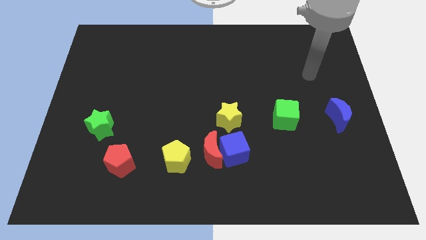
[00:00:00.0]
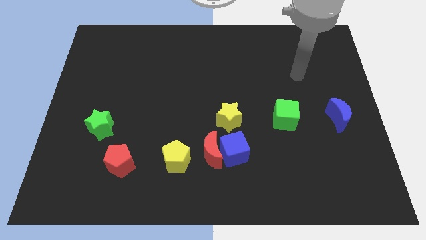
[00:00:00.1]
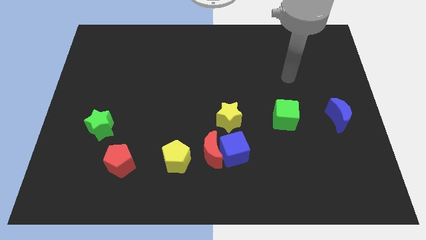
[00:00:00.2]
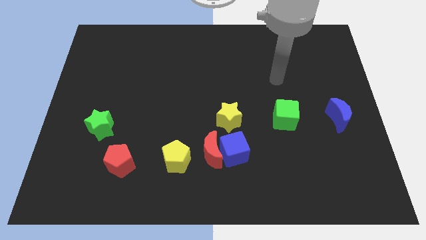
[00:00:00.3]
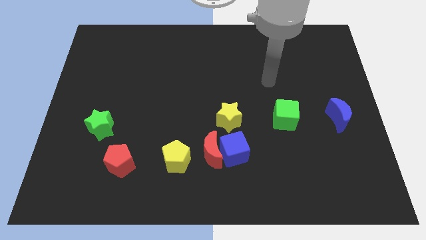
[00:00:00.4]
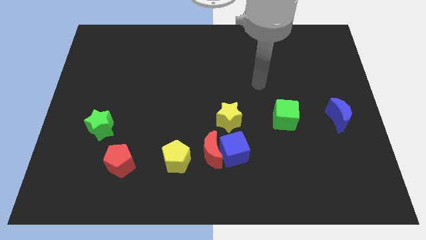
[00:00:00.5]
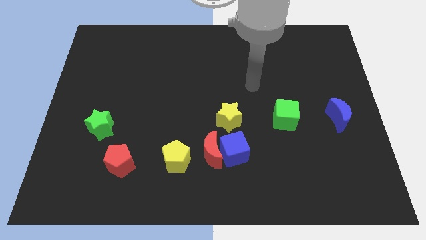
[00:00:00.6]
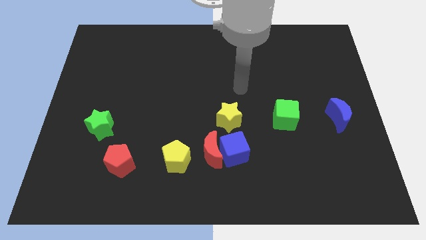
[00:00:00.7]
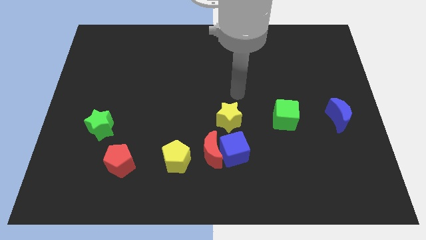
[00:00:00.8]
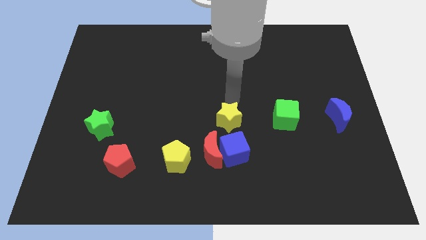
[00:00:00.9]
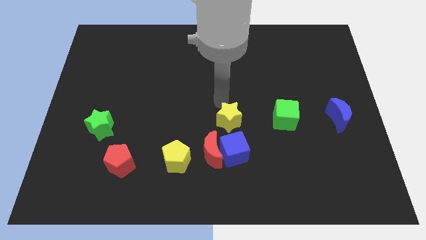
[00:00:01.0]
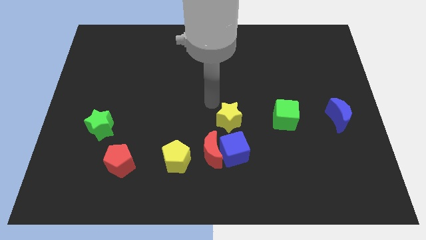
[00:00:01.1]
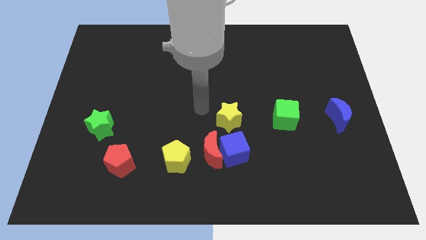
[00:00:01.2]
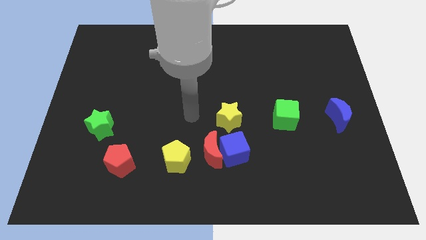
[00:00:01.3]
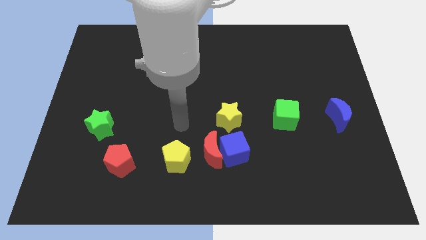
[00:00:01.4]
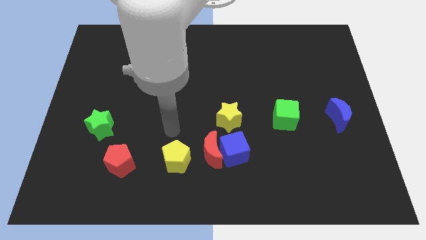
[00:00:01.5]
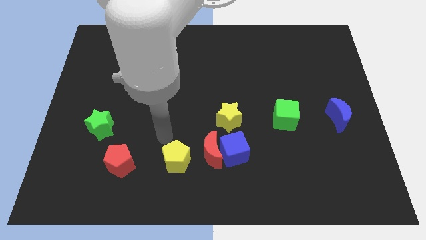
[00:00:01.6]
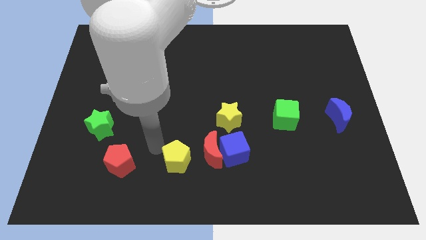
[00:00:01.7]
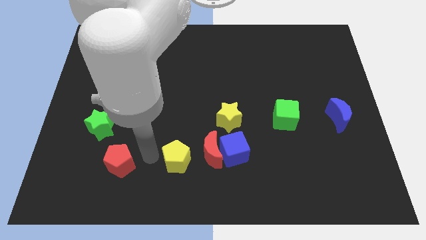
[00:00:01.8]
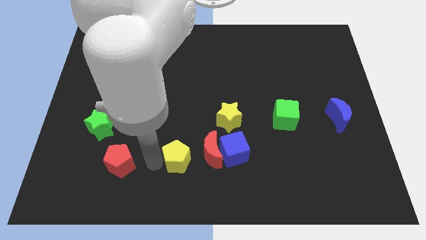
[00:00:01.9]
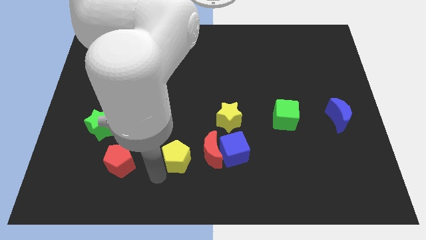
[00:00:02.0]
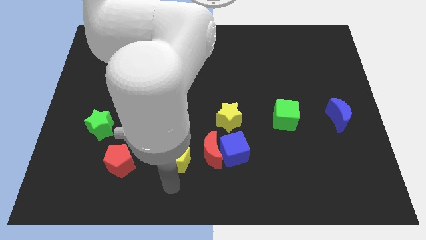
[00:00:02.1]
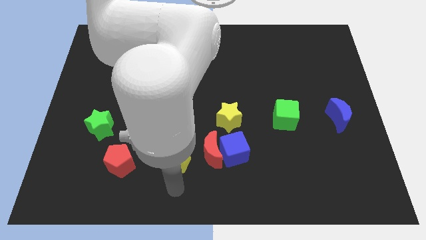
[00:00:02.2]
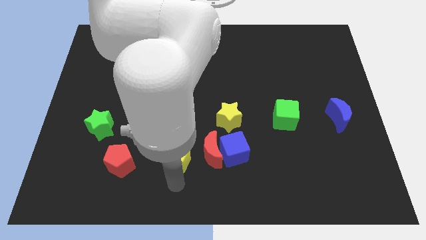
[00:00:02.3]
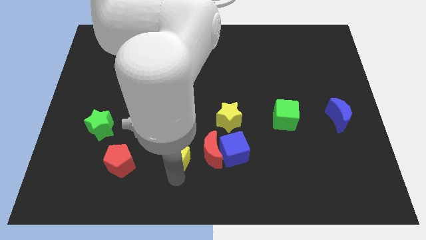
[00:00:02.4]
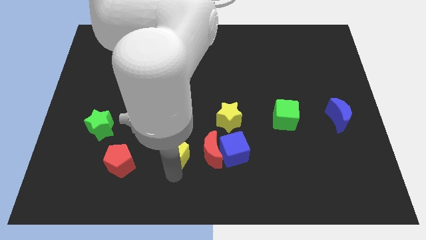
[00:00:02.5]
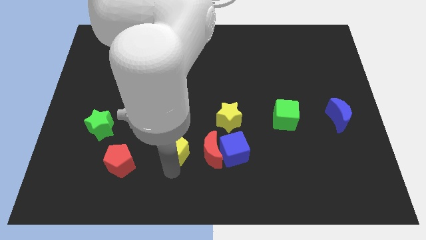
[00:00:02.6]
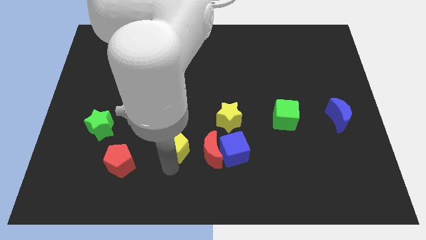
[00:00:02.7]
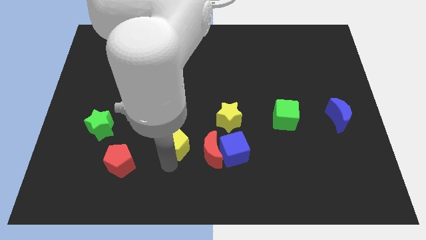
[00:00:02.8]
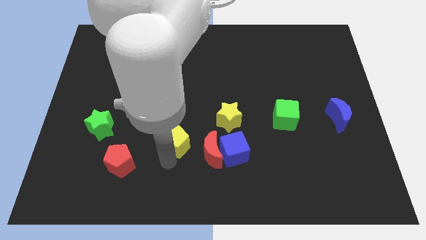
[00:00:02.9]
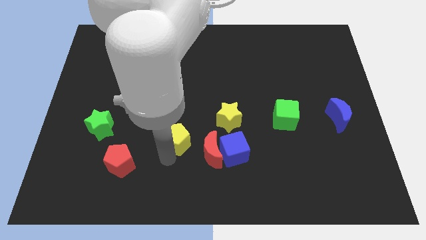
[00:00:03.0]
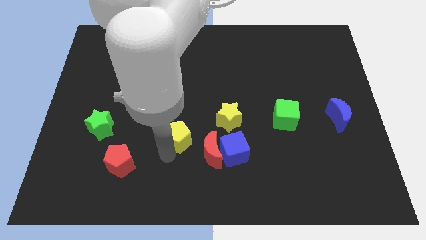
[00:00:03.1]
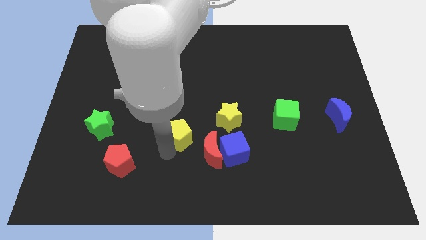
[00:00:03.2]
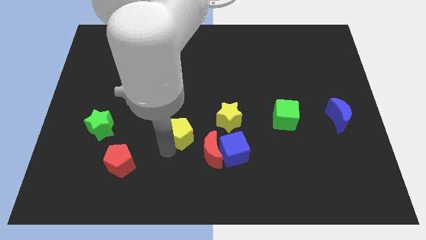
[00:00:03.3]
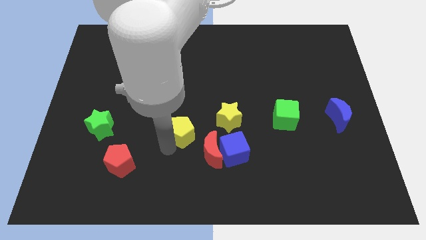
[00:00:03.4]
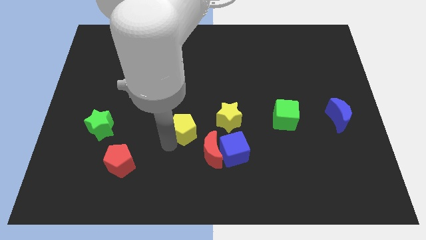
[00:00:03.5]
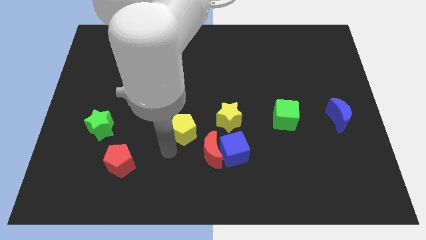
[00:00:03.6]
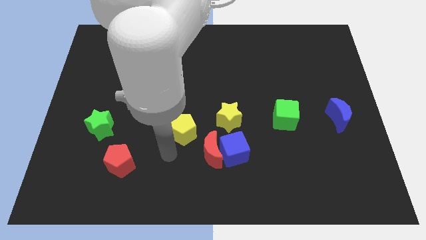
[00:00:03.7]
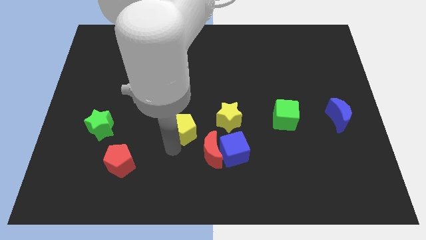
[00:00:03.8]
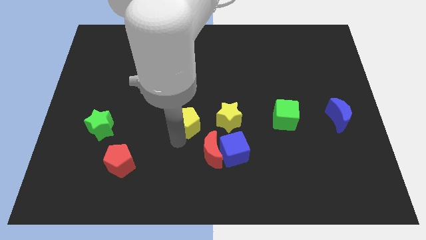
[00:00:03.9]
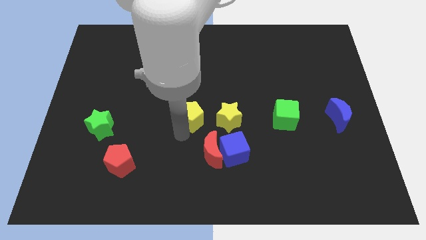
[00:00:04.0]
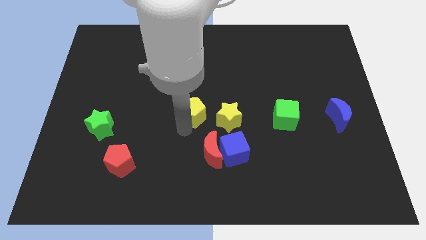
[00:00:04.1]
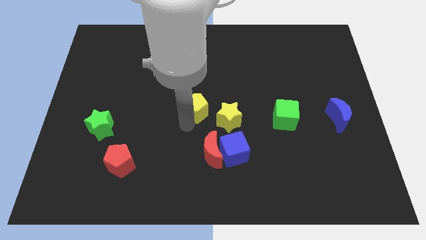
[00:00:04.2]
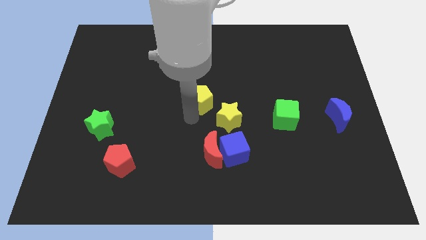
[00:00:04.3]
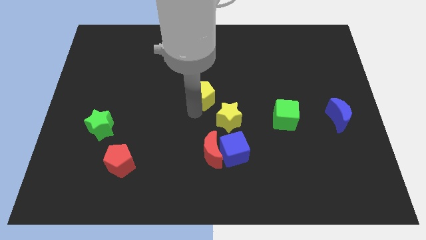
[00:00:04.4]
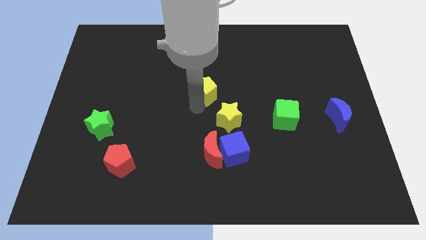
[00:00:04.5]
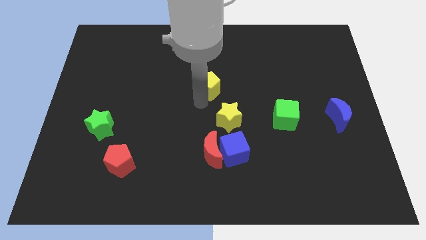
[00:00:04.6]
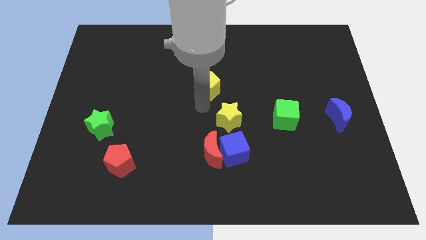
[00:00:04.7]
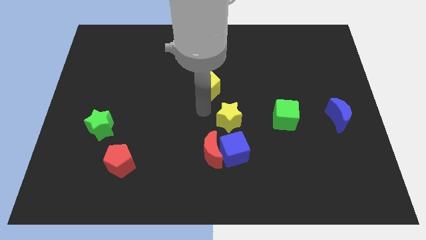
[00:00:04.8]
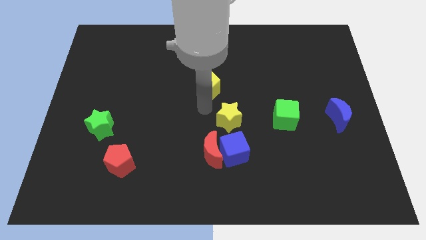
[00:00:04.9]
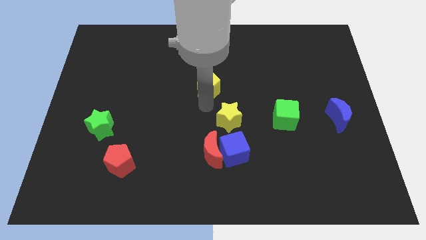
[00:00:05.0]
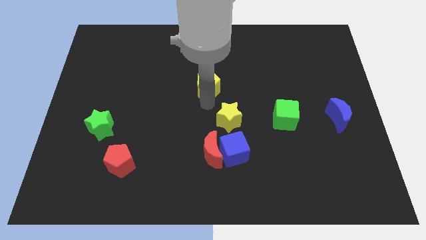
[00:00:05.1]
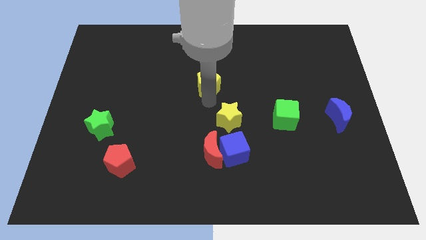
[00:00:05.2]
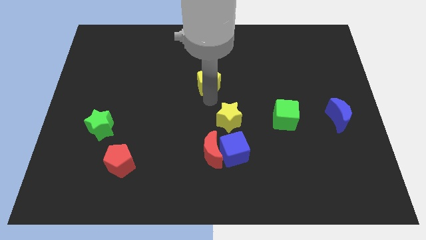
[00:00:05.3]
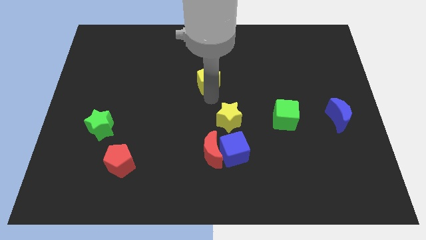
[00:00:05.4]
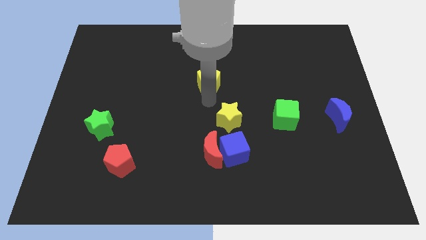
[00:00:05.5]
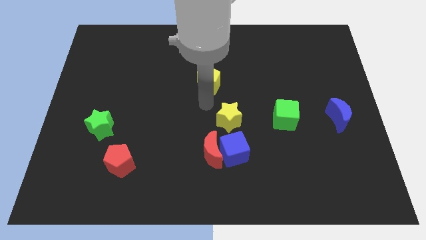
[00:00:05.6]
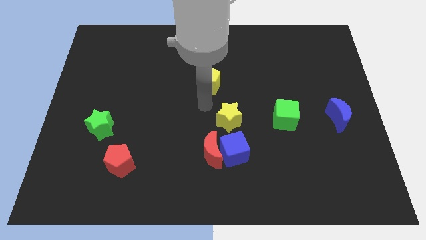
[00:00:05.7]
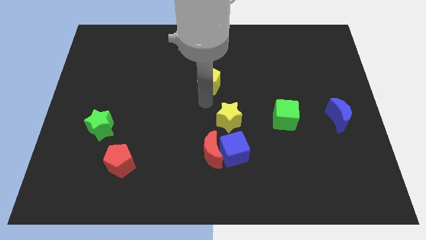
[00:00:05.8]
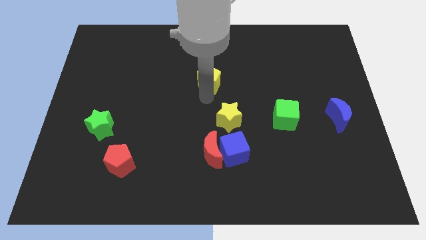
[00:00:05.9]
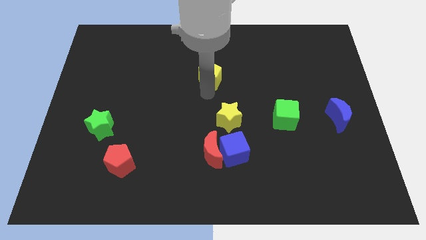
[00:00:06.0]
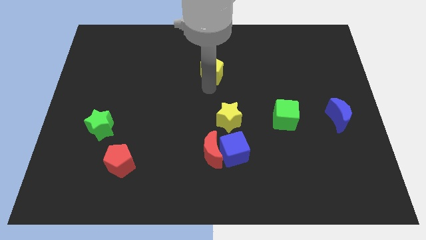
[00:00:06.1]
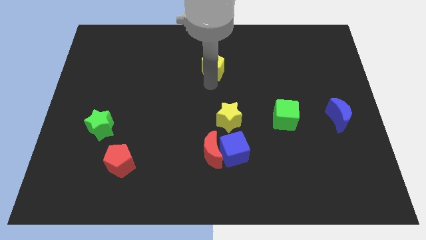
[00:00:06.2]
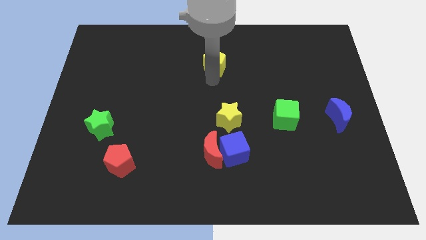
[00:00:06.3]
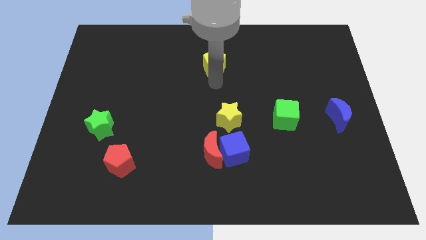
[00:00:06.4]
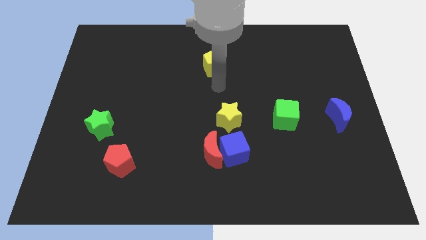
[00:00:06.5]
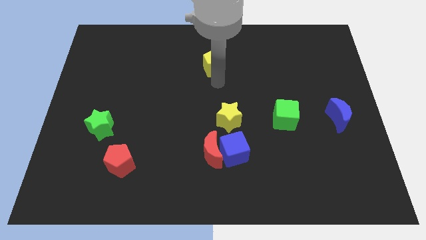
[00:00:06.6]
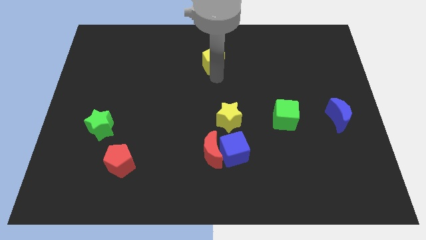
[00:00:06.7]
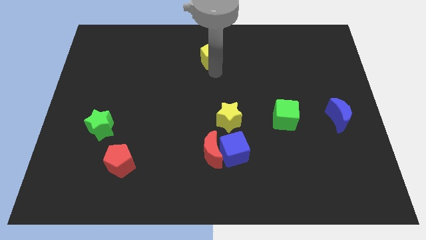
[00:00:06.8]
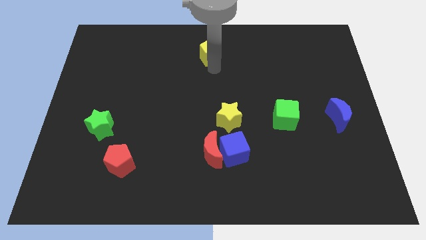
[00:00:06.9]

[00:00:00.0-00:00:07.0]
push the yellow pentagon to the top
